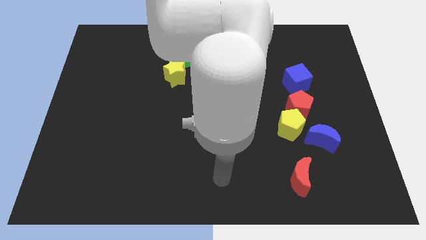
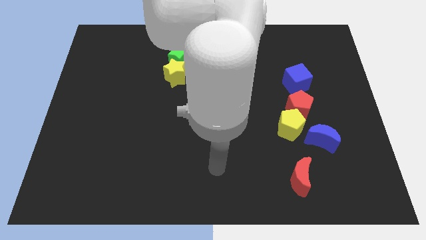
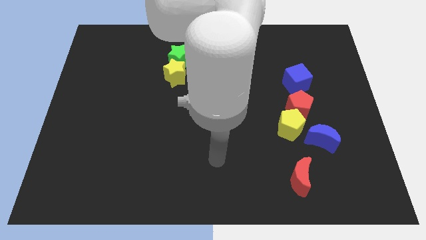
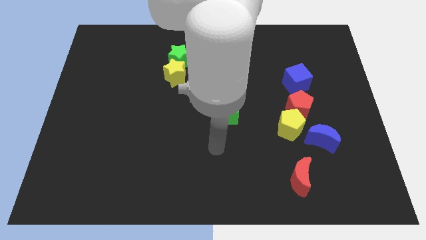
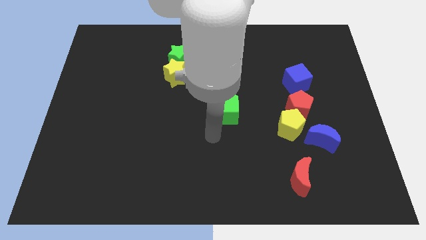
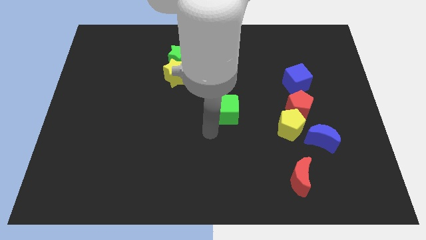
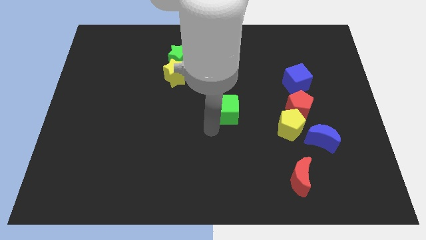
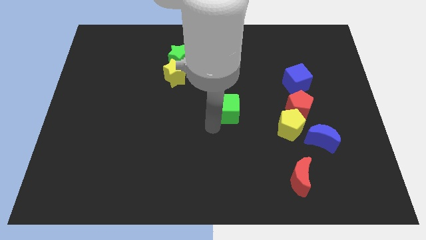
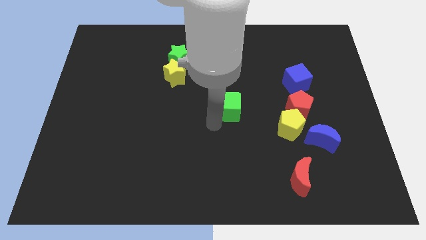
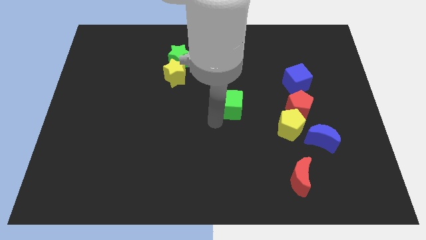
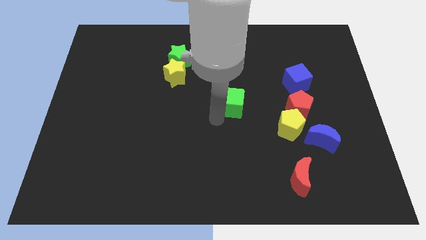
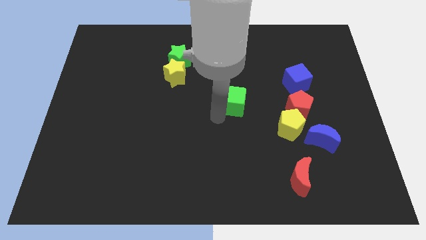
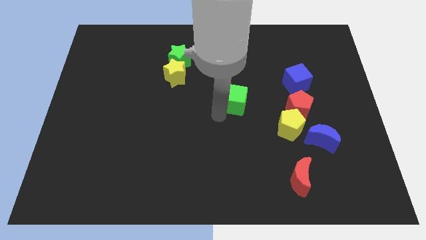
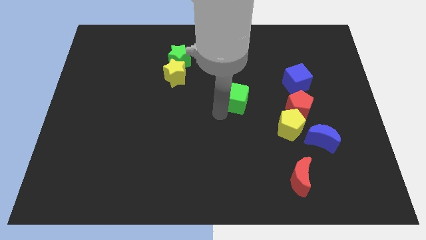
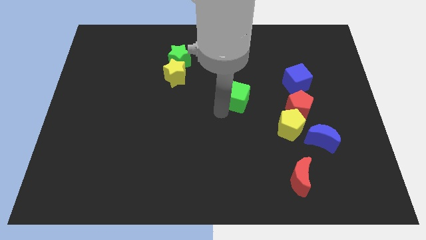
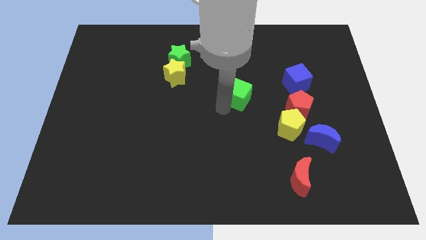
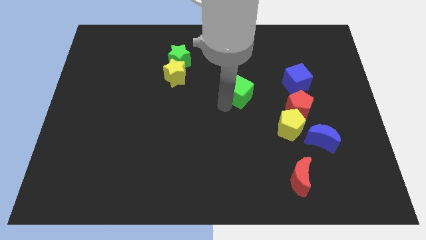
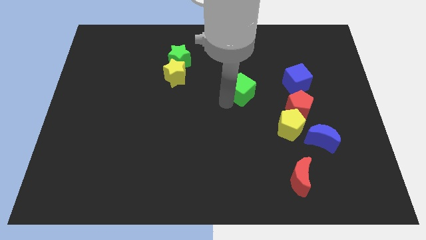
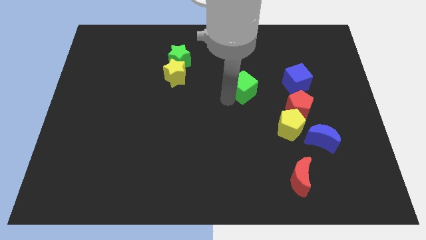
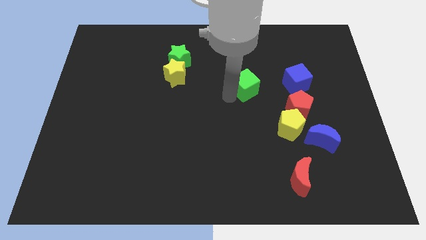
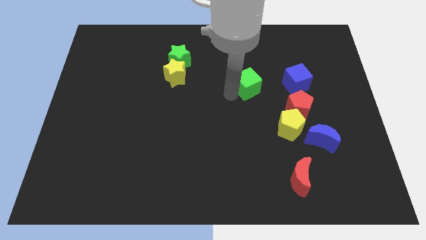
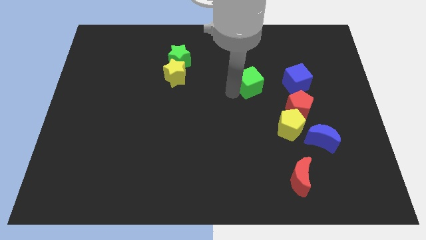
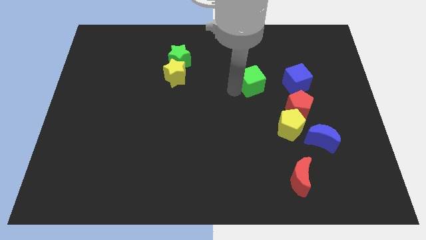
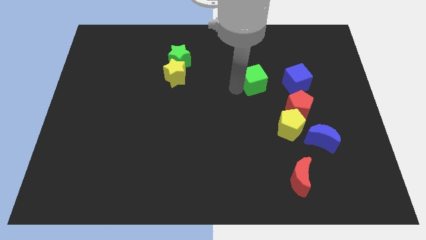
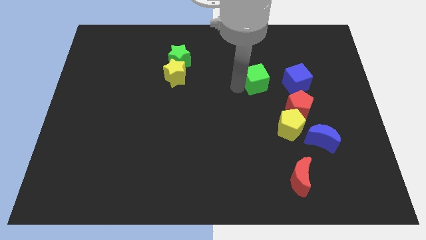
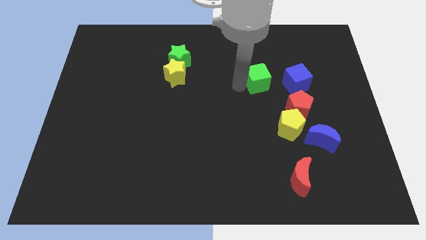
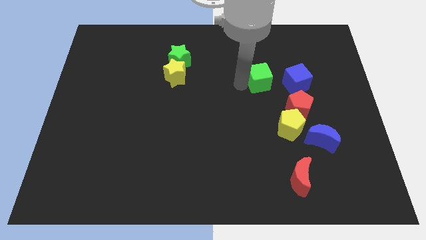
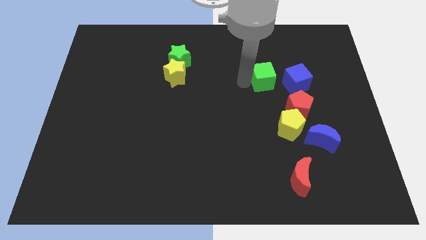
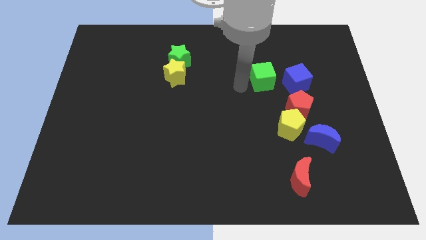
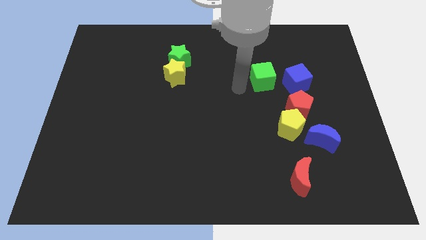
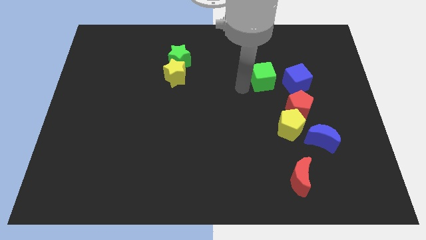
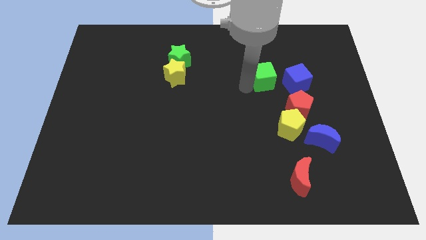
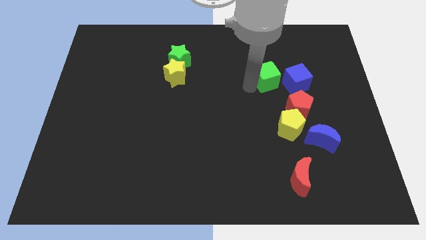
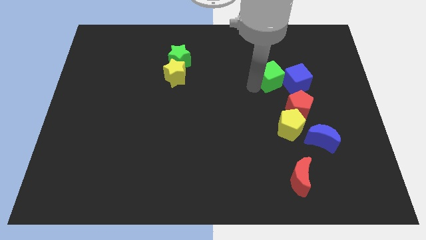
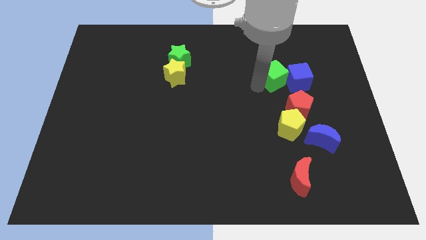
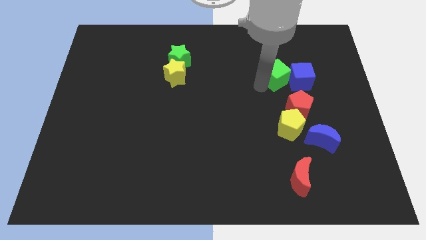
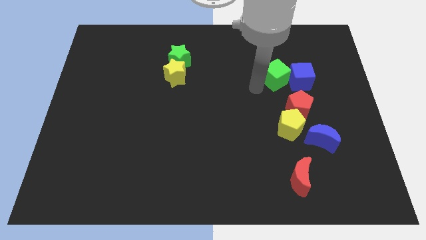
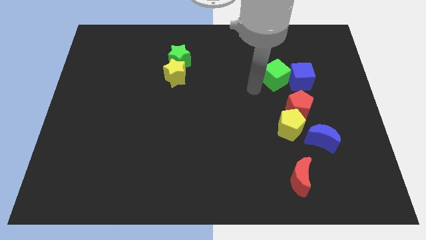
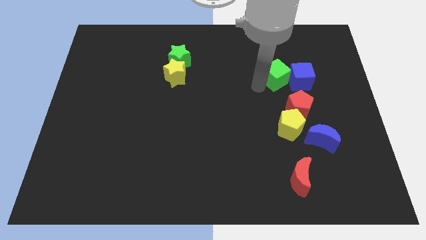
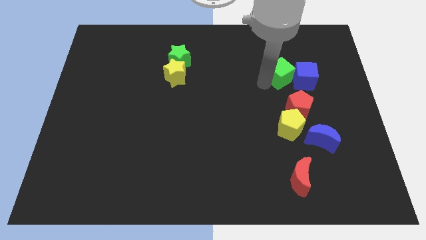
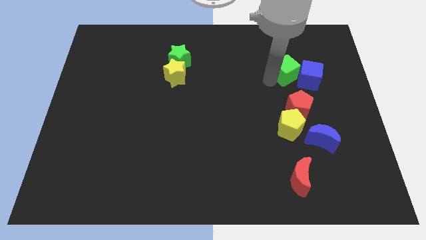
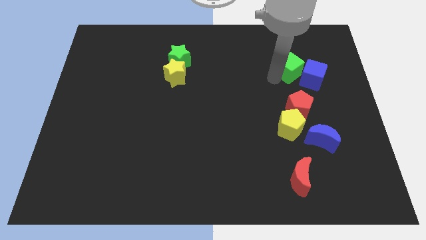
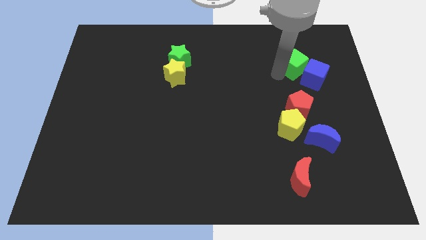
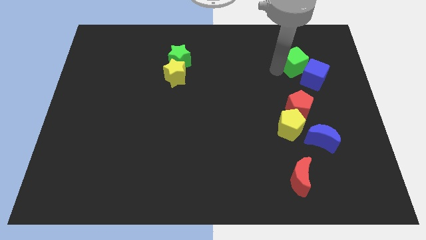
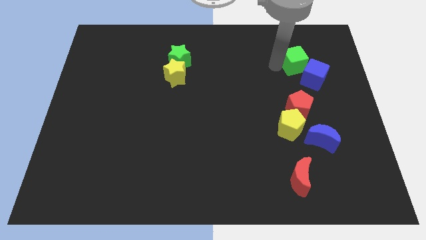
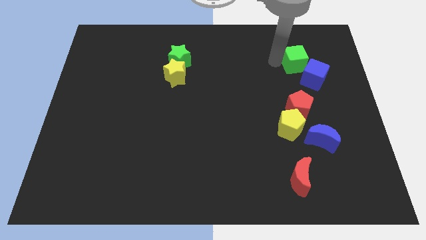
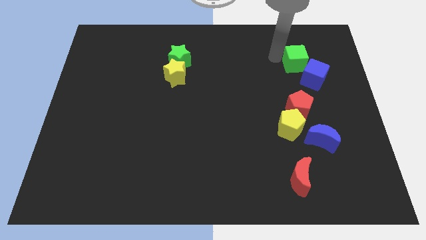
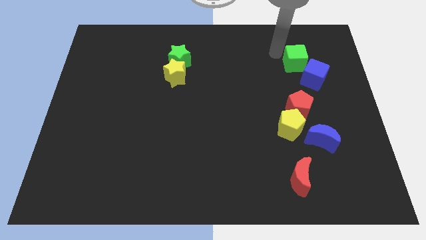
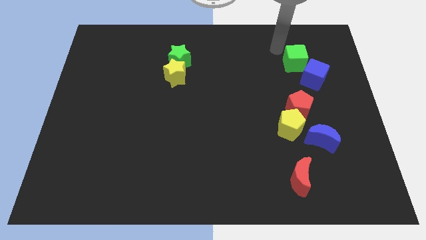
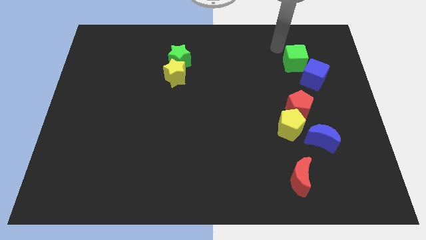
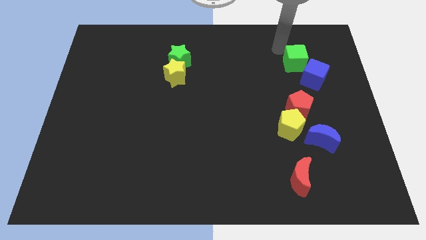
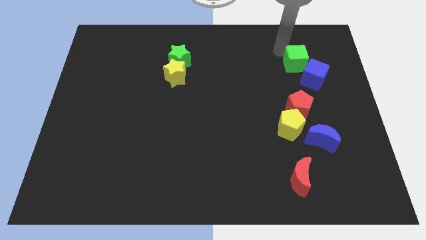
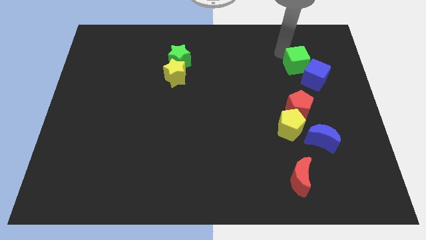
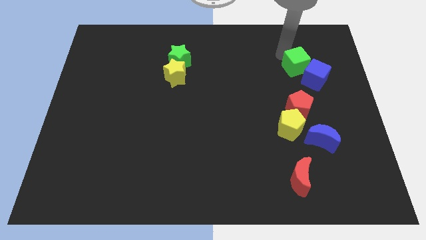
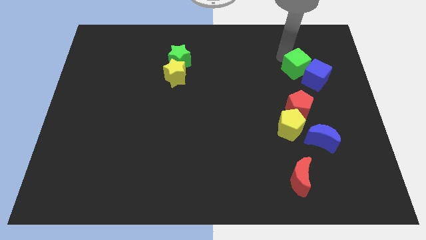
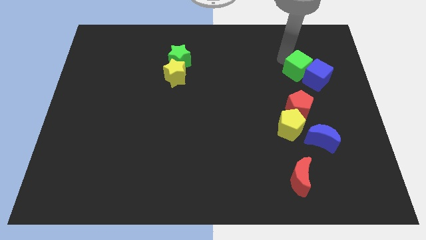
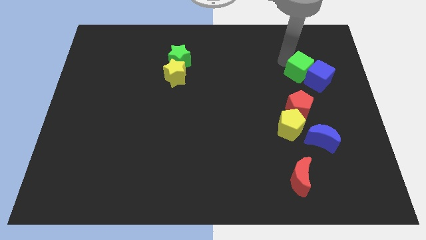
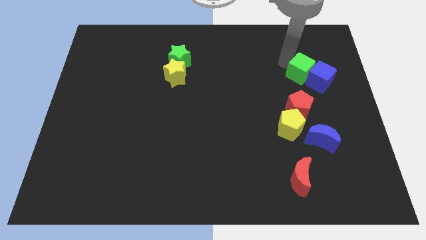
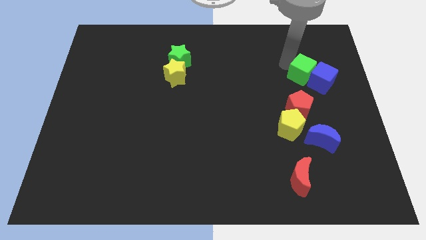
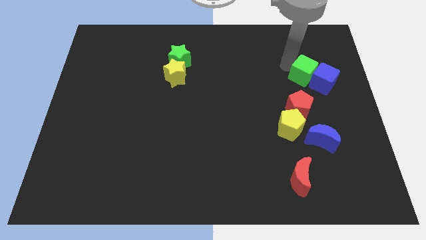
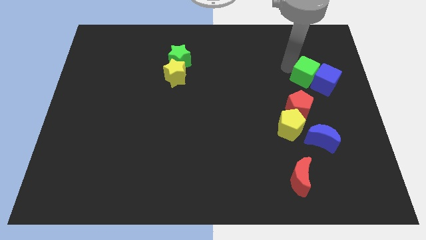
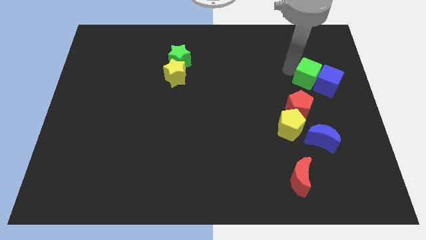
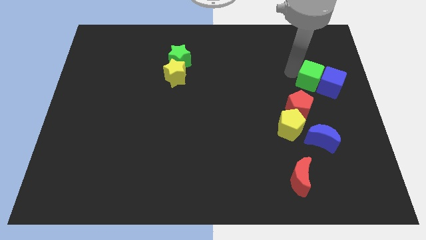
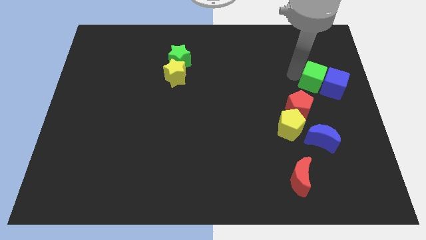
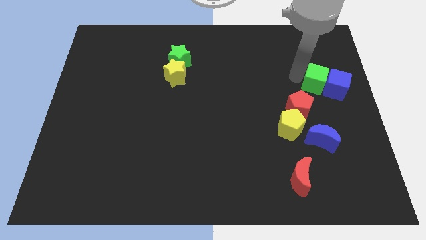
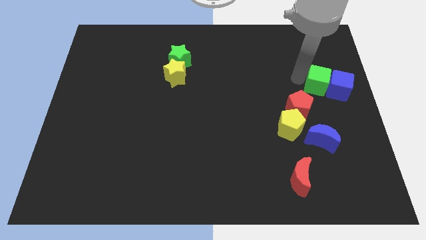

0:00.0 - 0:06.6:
put the green cube to the right side
